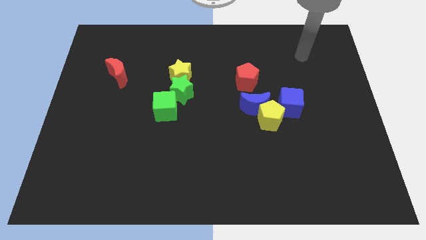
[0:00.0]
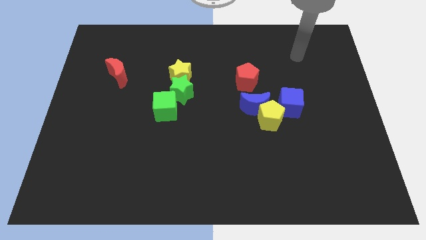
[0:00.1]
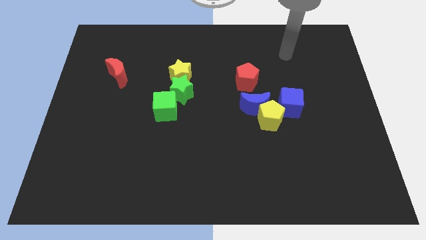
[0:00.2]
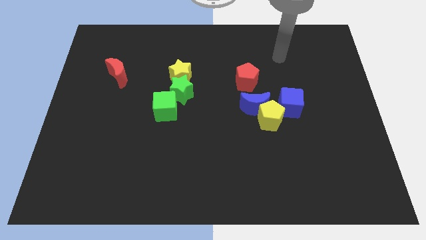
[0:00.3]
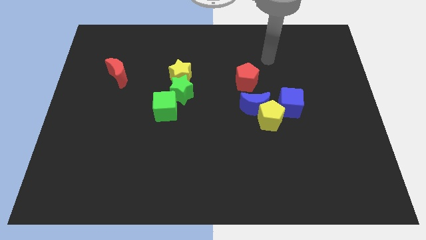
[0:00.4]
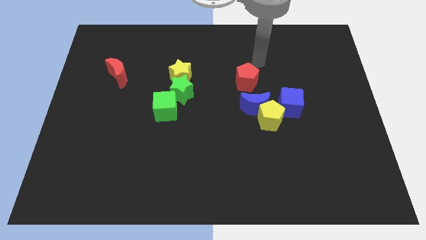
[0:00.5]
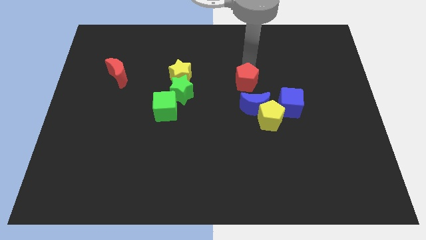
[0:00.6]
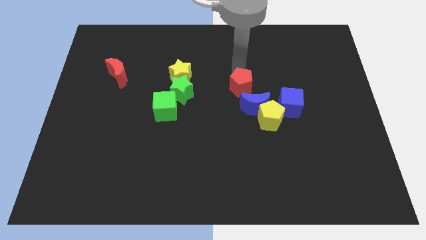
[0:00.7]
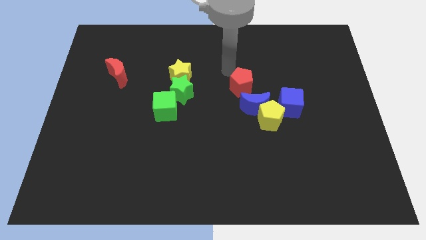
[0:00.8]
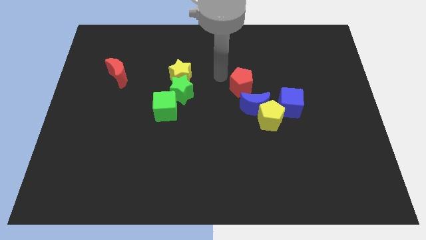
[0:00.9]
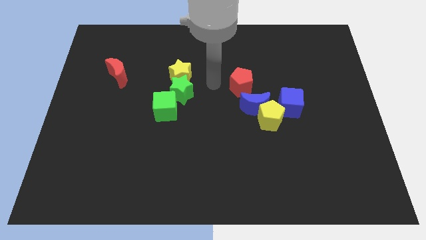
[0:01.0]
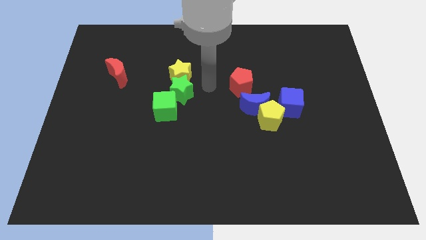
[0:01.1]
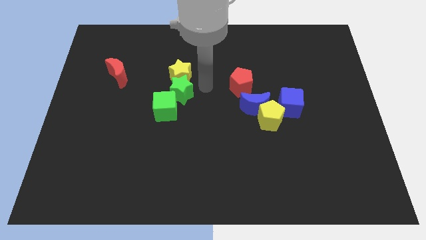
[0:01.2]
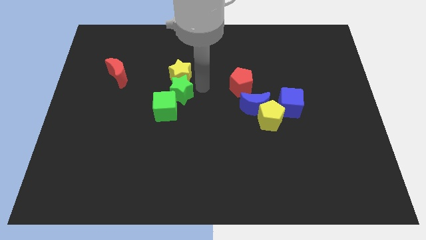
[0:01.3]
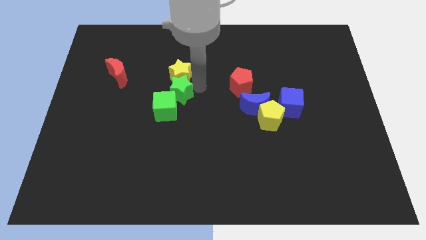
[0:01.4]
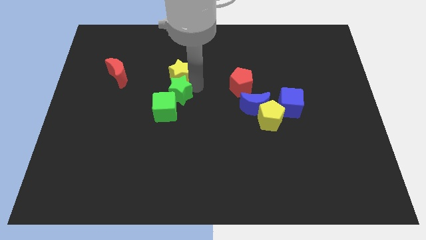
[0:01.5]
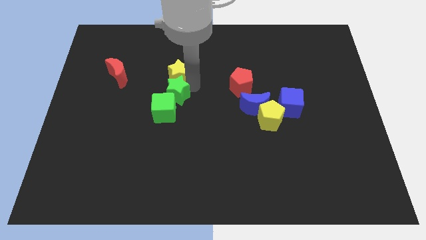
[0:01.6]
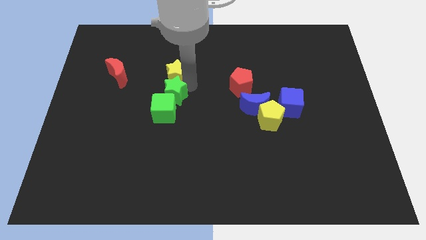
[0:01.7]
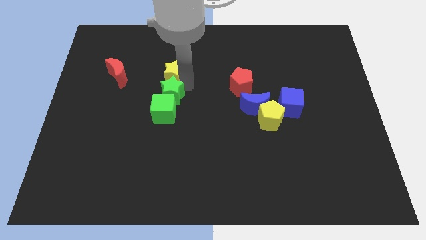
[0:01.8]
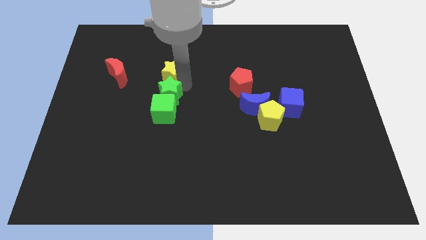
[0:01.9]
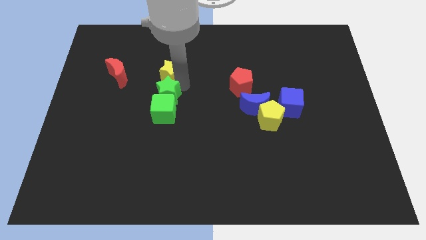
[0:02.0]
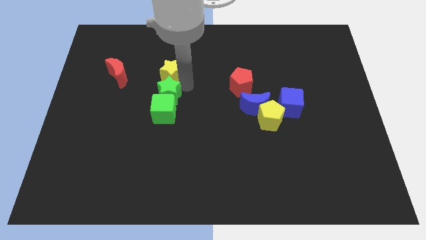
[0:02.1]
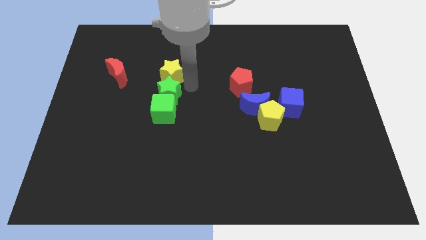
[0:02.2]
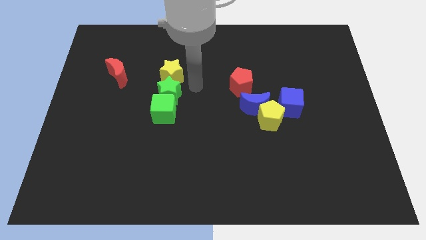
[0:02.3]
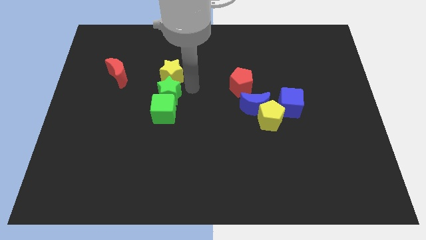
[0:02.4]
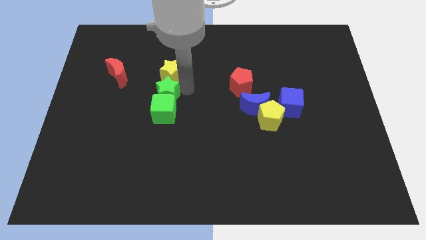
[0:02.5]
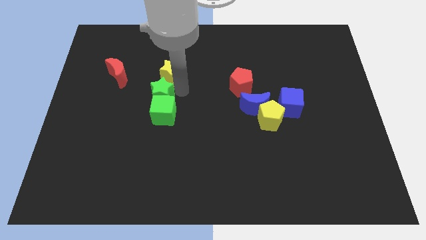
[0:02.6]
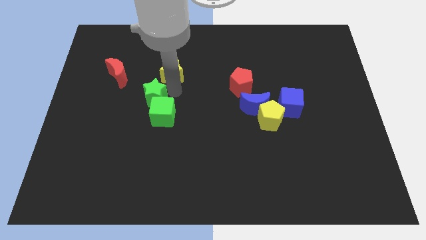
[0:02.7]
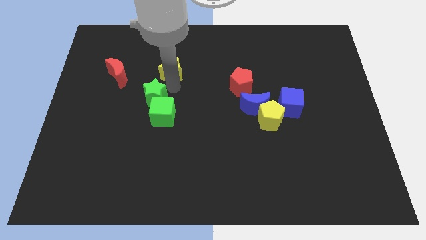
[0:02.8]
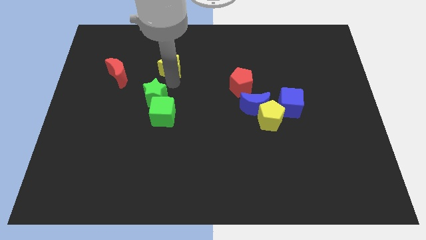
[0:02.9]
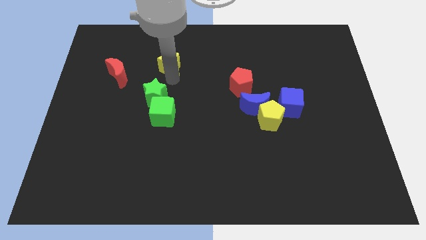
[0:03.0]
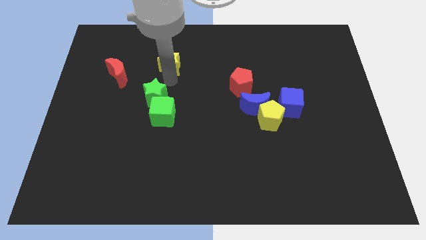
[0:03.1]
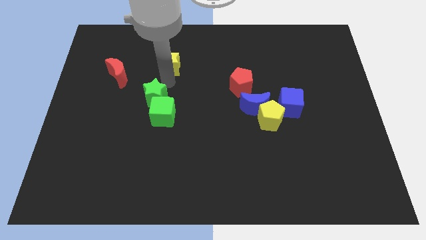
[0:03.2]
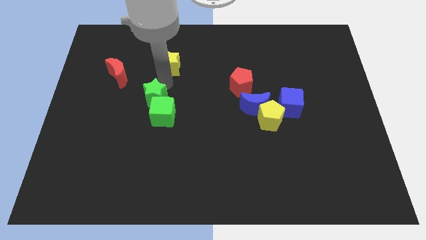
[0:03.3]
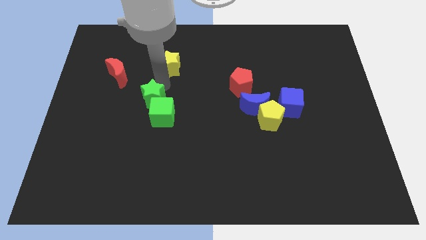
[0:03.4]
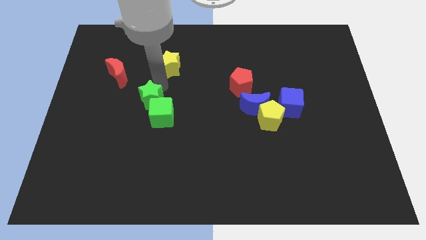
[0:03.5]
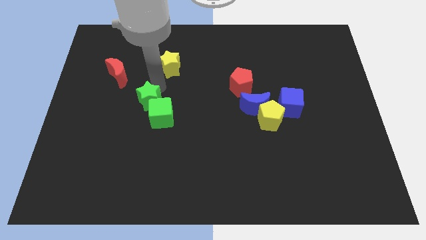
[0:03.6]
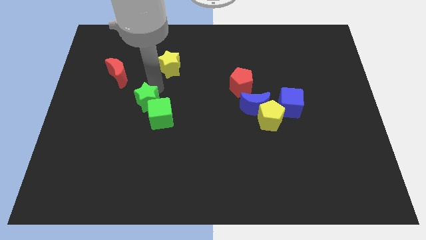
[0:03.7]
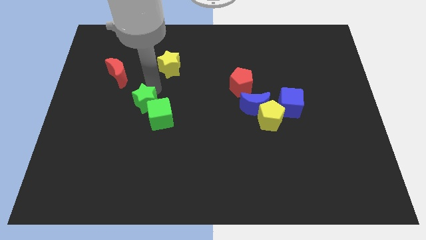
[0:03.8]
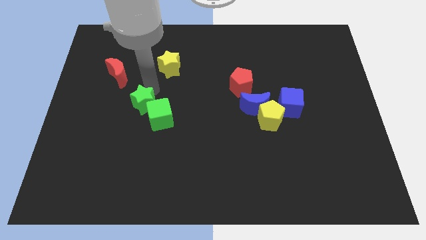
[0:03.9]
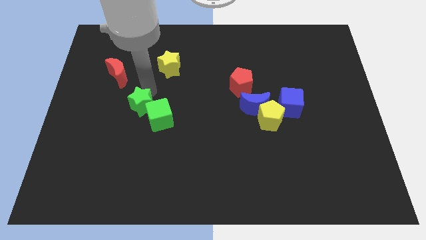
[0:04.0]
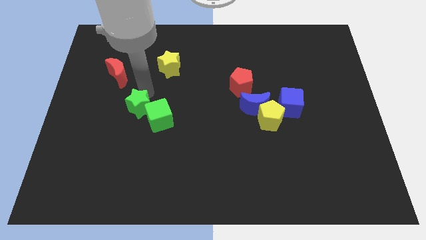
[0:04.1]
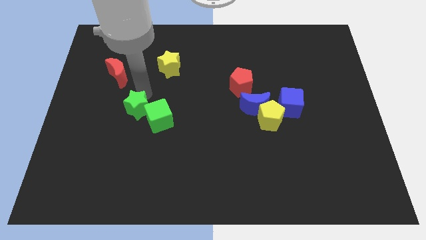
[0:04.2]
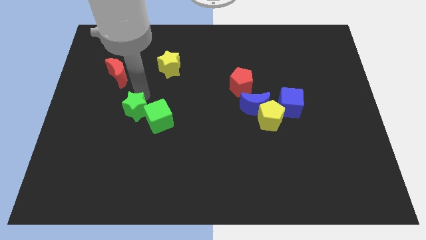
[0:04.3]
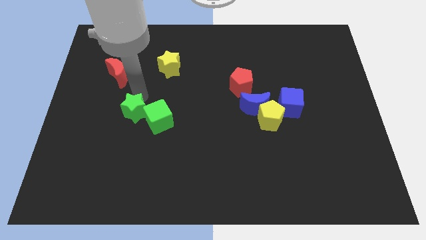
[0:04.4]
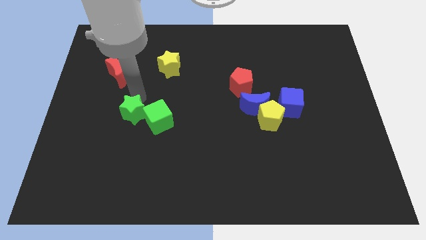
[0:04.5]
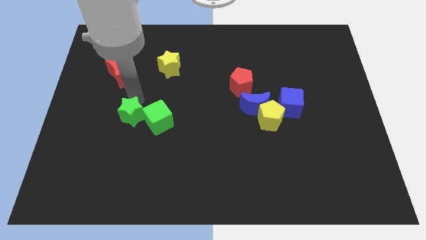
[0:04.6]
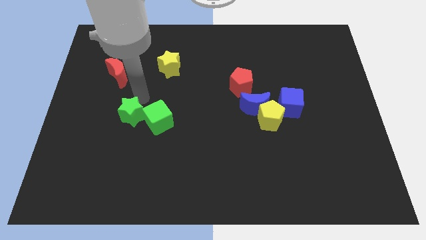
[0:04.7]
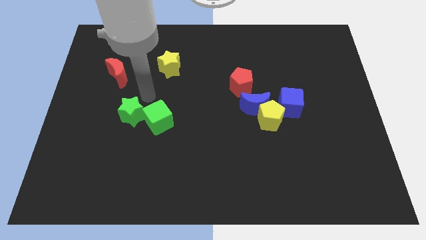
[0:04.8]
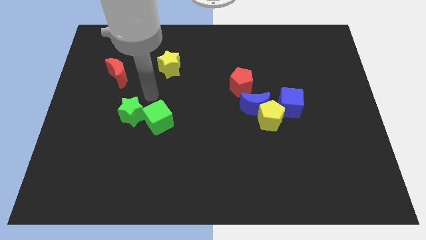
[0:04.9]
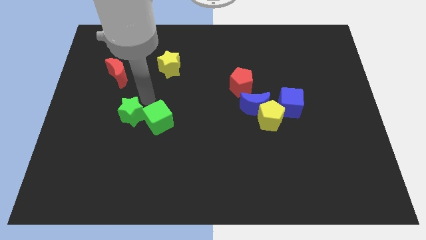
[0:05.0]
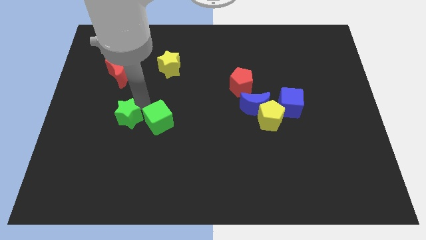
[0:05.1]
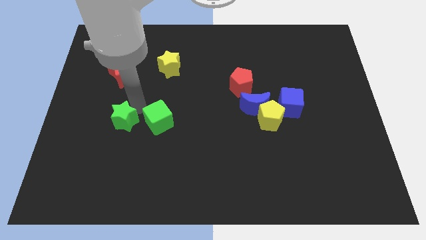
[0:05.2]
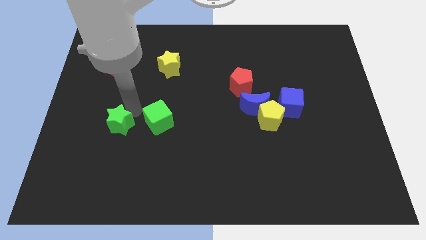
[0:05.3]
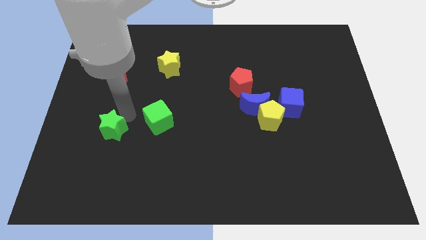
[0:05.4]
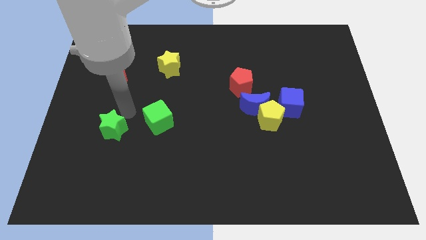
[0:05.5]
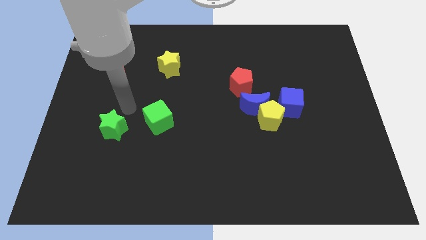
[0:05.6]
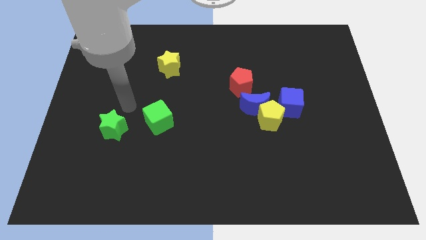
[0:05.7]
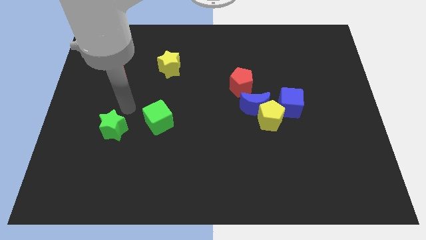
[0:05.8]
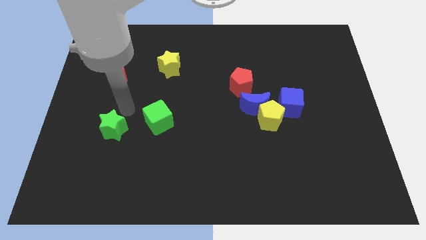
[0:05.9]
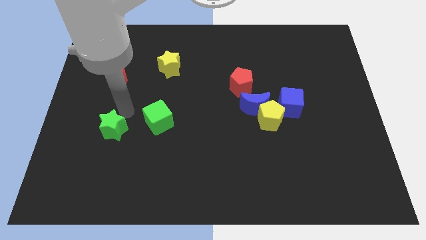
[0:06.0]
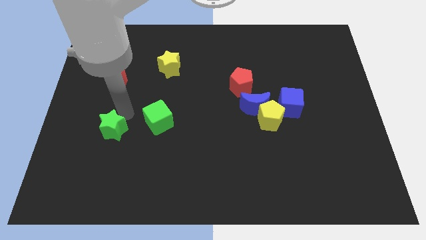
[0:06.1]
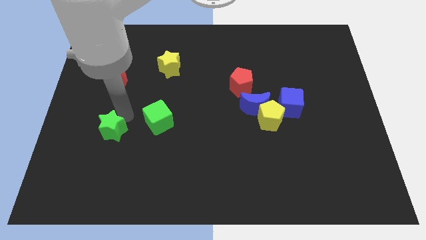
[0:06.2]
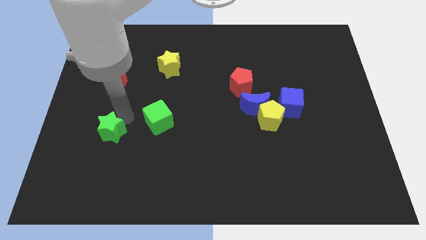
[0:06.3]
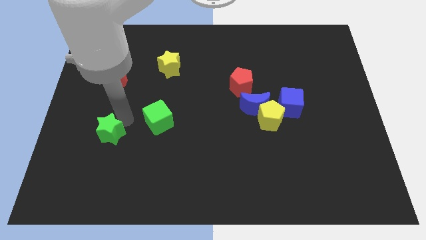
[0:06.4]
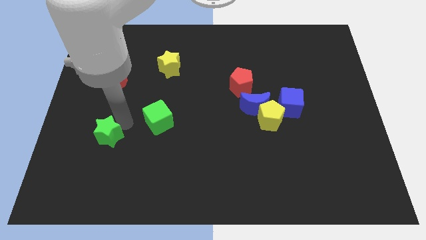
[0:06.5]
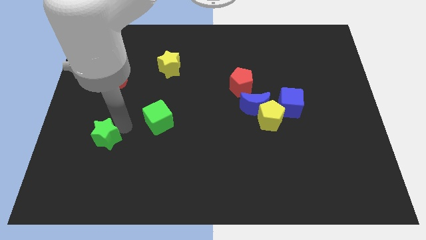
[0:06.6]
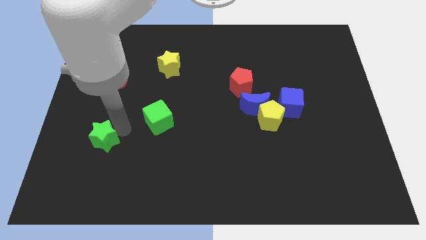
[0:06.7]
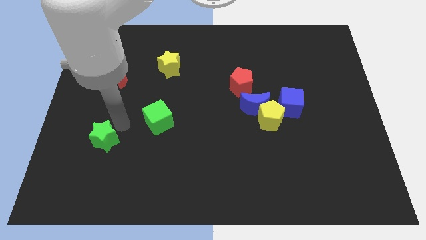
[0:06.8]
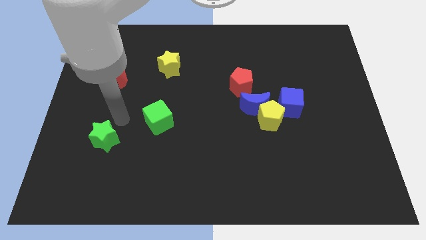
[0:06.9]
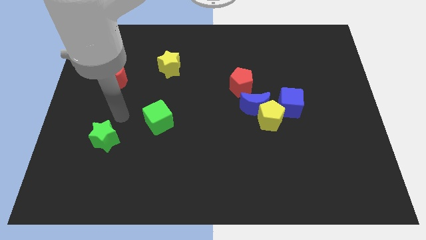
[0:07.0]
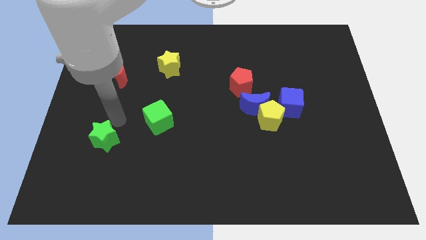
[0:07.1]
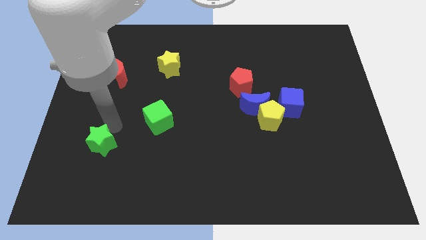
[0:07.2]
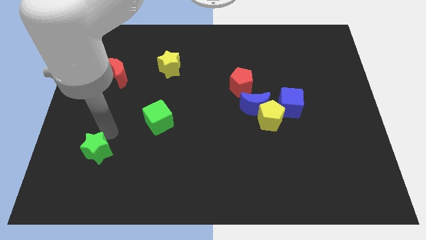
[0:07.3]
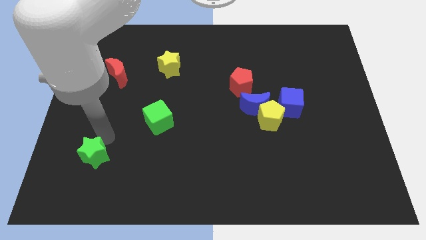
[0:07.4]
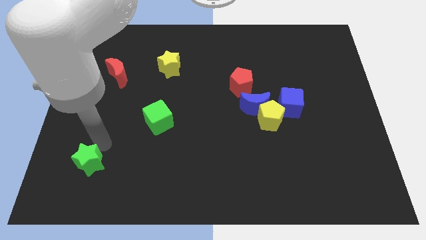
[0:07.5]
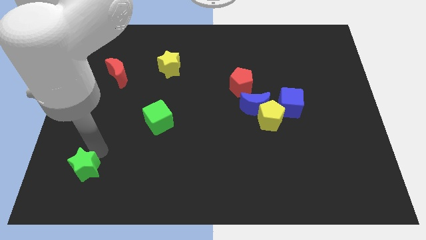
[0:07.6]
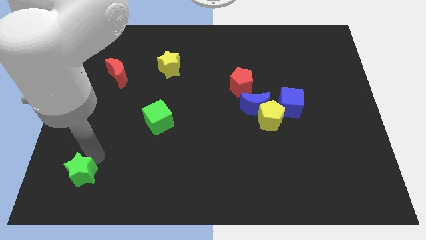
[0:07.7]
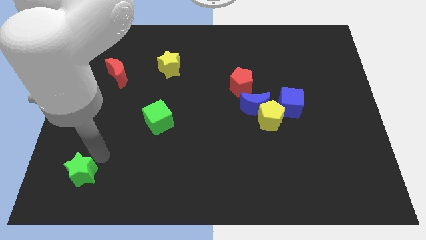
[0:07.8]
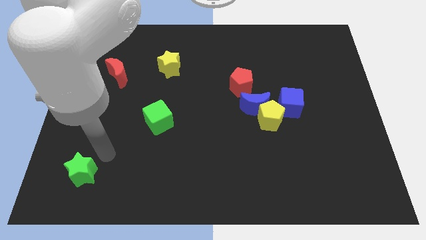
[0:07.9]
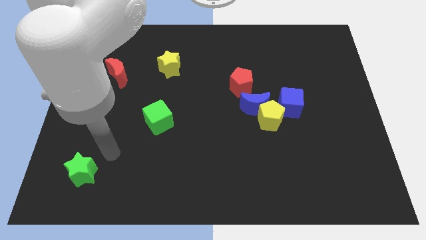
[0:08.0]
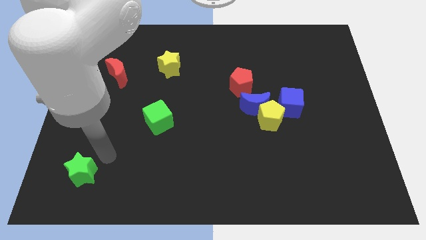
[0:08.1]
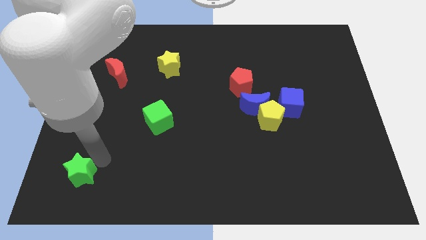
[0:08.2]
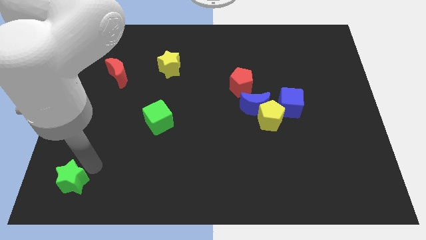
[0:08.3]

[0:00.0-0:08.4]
push the green star to the bottom left corner
